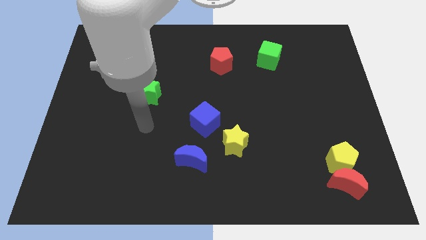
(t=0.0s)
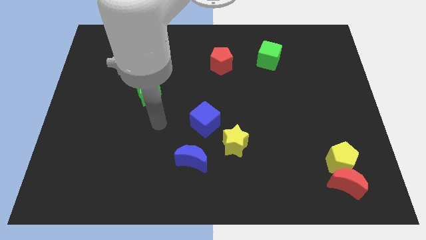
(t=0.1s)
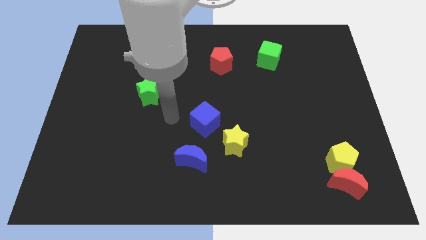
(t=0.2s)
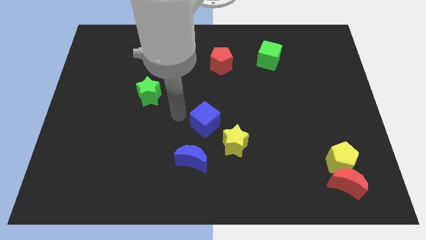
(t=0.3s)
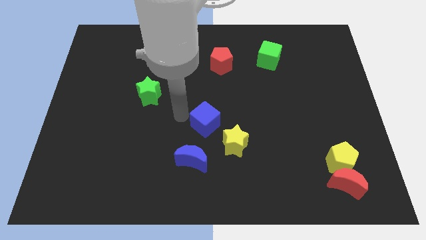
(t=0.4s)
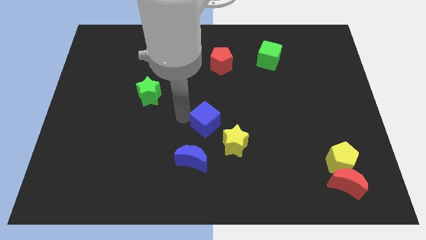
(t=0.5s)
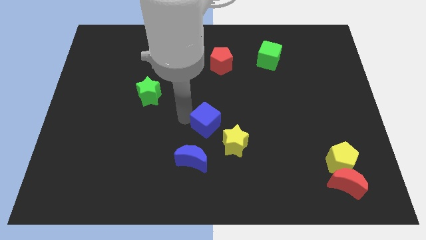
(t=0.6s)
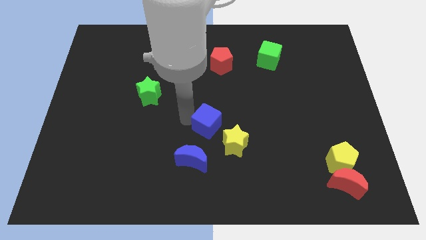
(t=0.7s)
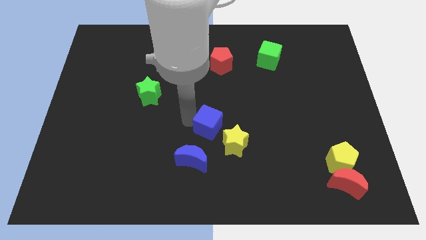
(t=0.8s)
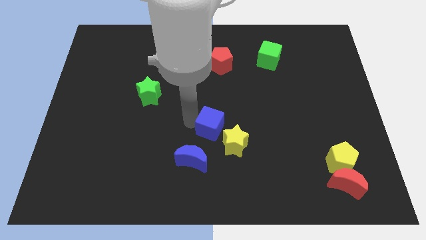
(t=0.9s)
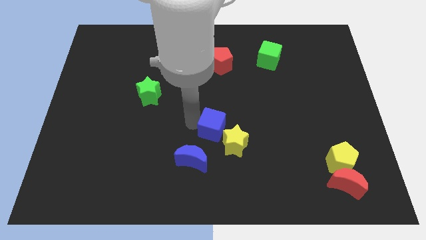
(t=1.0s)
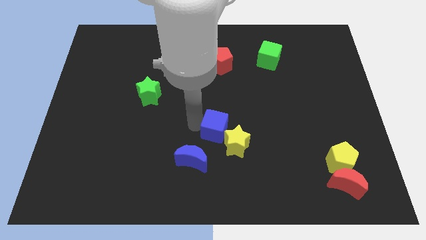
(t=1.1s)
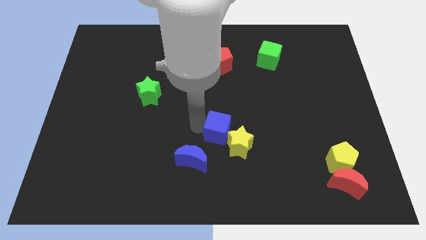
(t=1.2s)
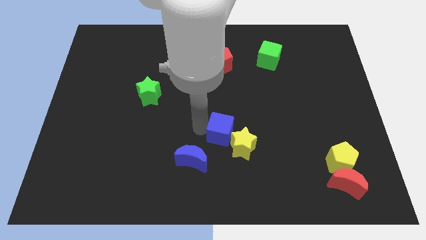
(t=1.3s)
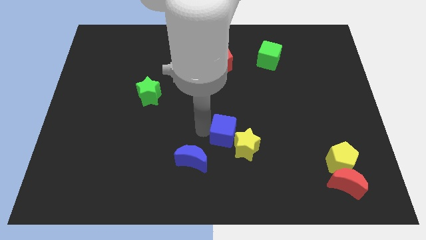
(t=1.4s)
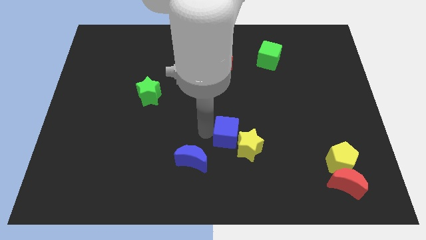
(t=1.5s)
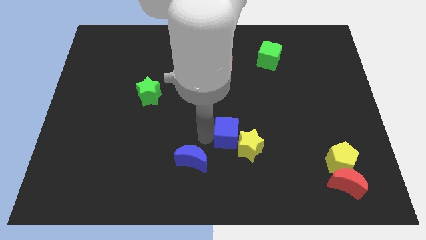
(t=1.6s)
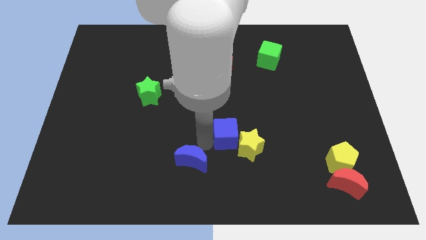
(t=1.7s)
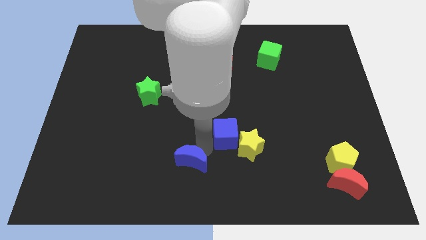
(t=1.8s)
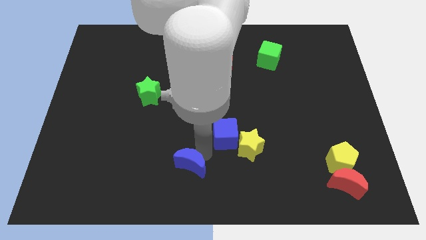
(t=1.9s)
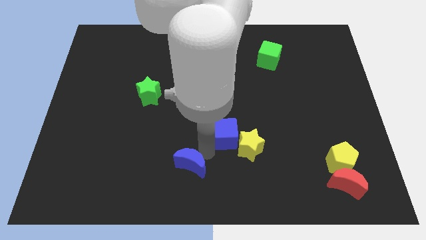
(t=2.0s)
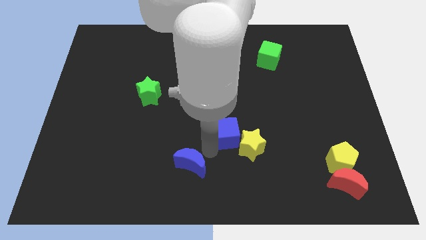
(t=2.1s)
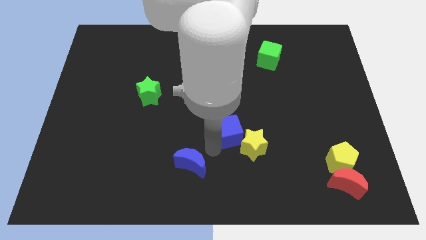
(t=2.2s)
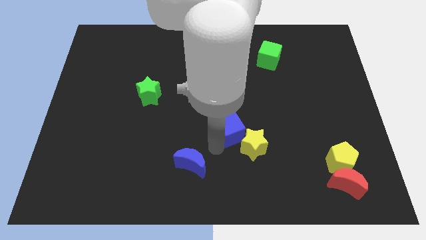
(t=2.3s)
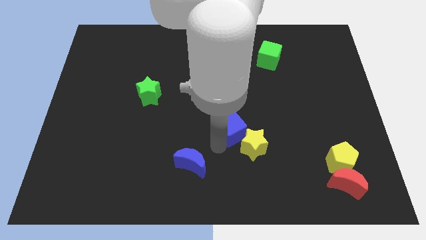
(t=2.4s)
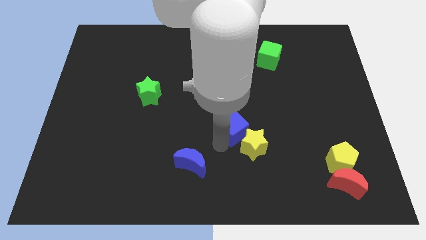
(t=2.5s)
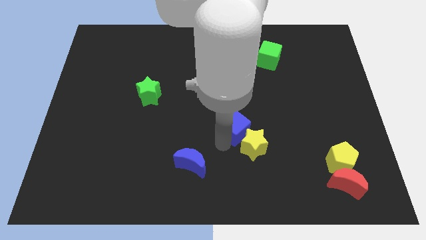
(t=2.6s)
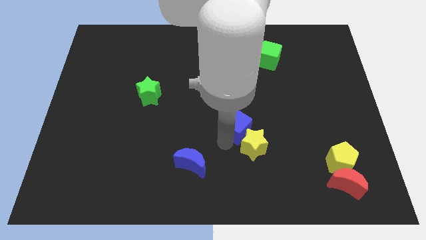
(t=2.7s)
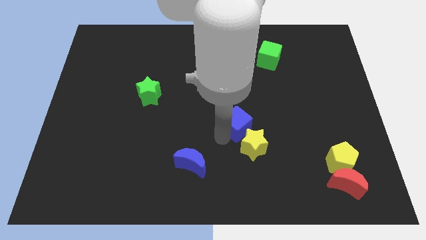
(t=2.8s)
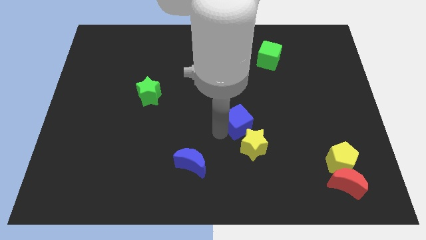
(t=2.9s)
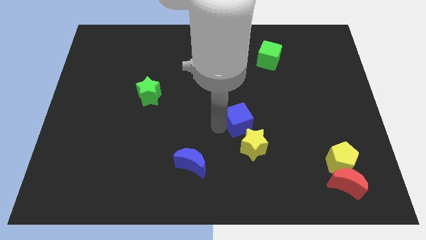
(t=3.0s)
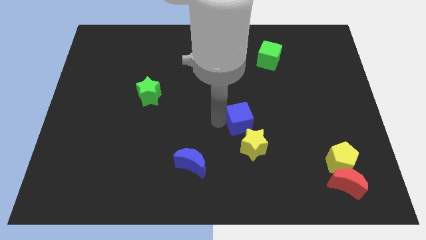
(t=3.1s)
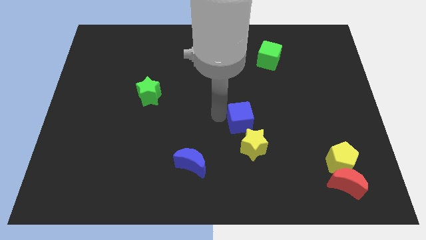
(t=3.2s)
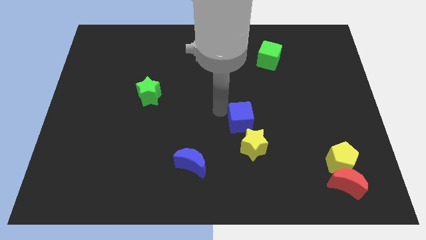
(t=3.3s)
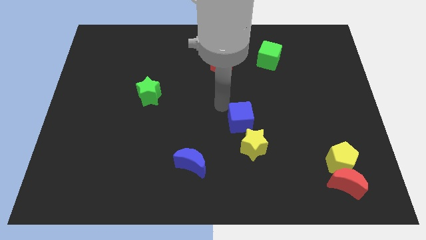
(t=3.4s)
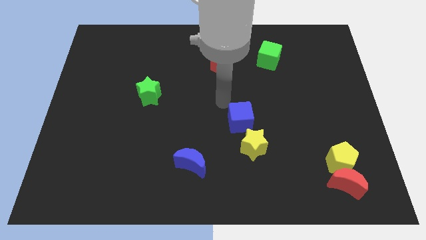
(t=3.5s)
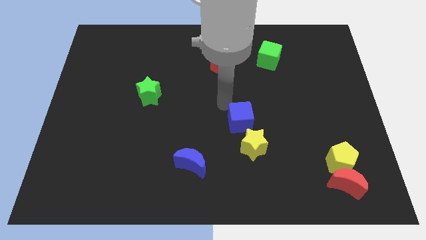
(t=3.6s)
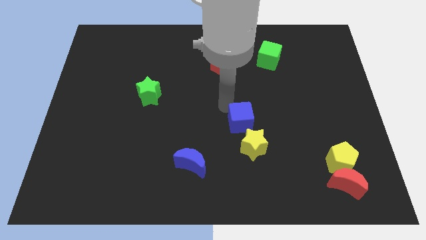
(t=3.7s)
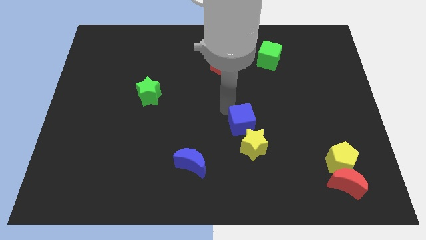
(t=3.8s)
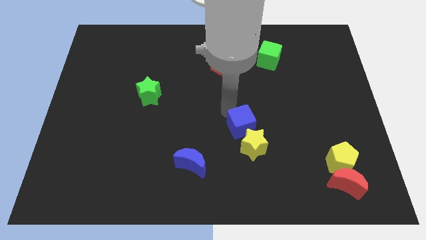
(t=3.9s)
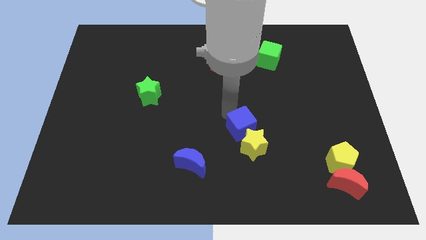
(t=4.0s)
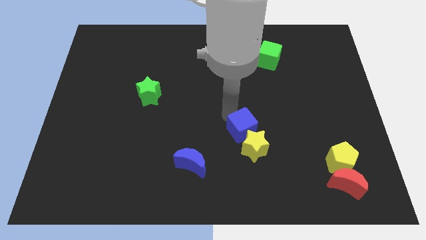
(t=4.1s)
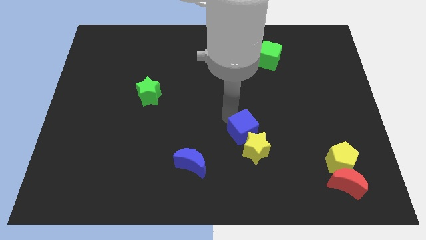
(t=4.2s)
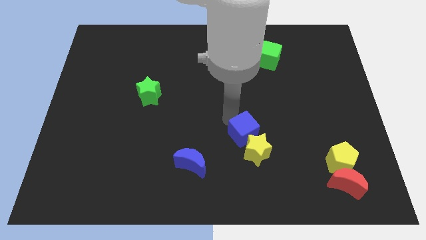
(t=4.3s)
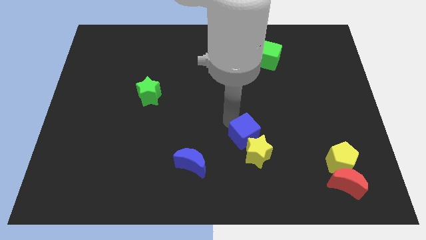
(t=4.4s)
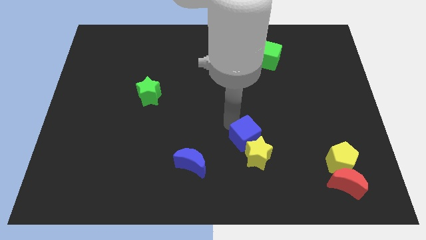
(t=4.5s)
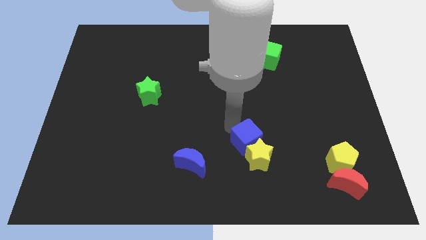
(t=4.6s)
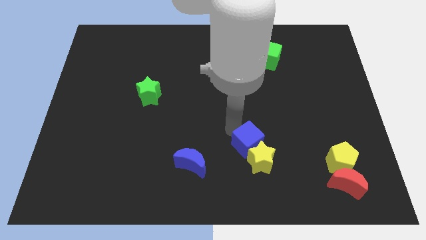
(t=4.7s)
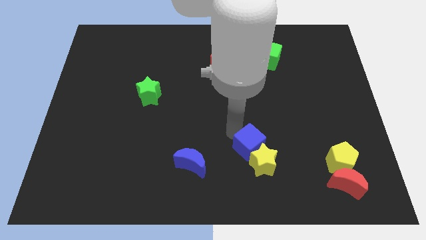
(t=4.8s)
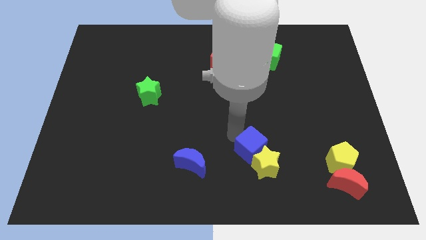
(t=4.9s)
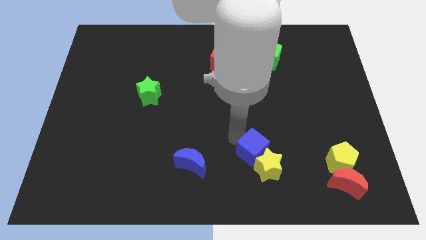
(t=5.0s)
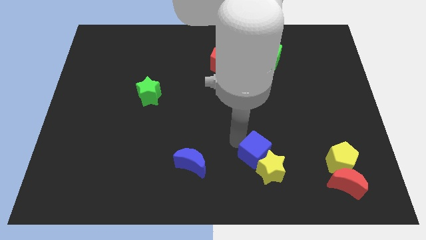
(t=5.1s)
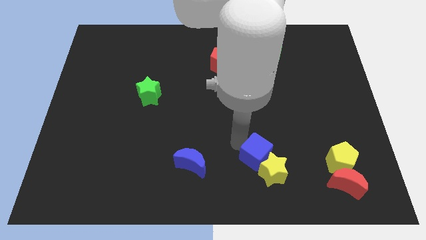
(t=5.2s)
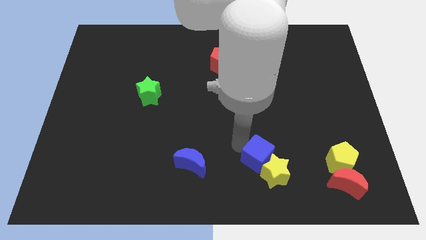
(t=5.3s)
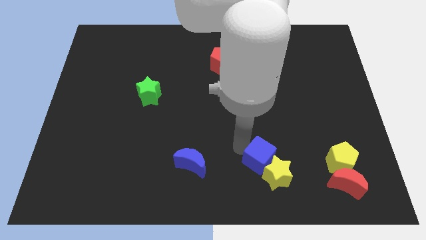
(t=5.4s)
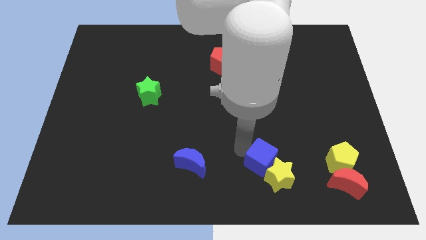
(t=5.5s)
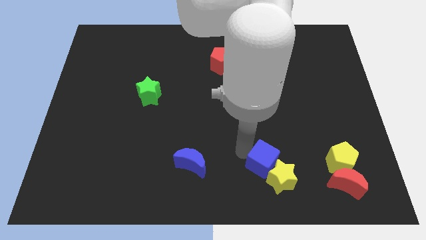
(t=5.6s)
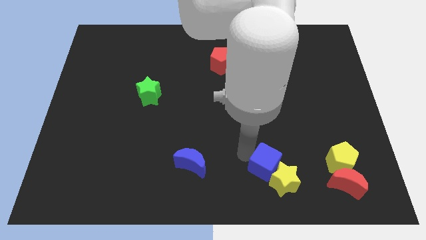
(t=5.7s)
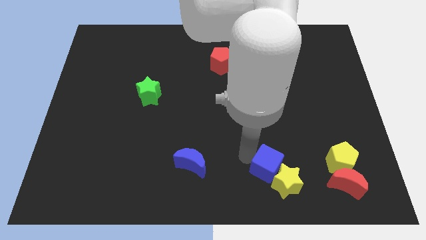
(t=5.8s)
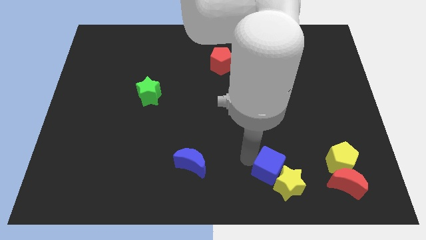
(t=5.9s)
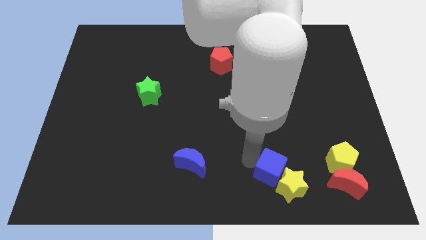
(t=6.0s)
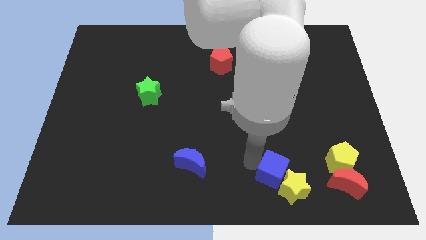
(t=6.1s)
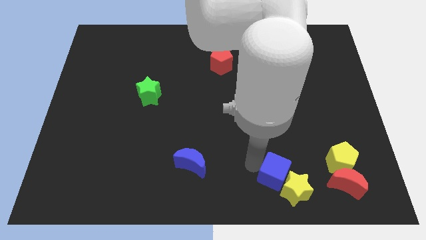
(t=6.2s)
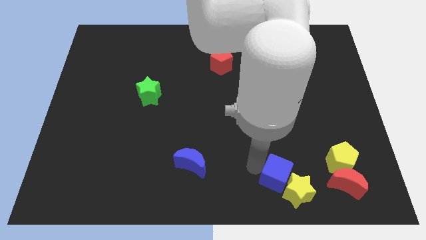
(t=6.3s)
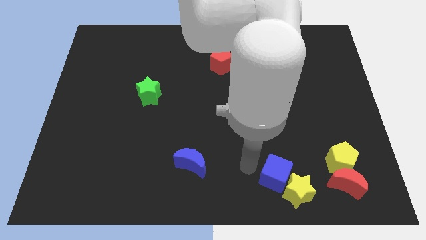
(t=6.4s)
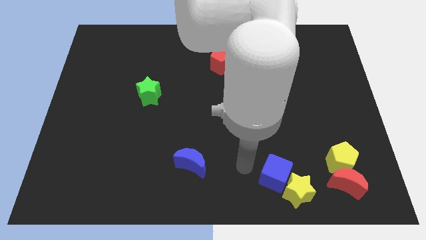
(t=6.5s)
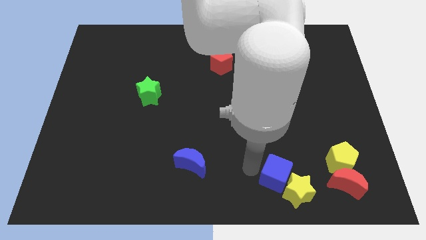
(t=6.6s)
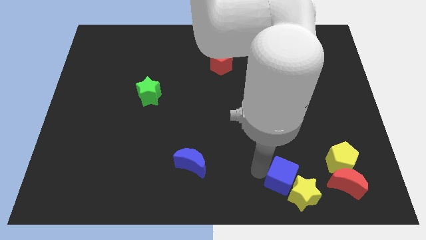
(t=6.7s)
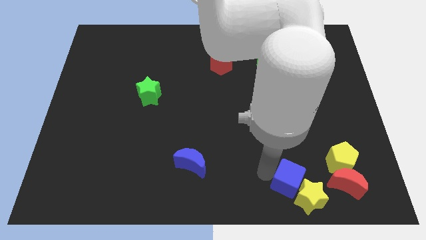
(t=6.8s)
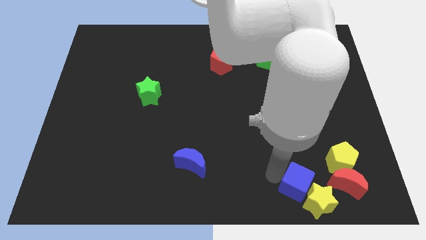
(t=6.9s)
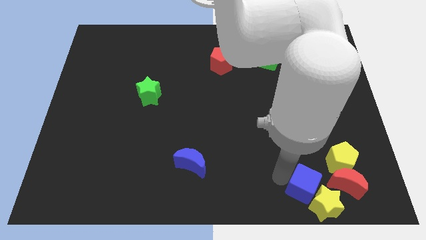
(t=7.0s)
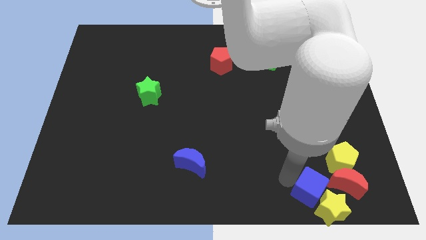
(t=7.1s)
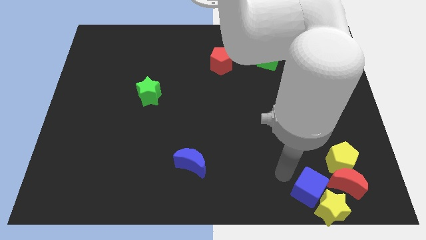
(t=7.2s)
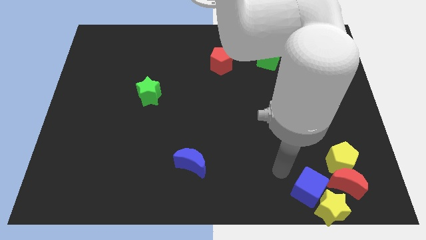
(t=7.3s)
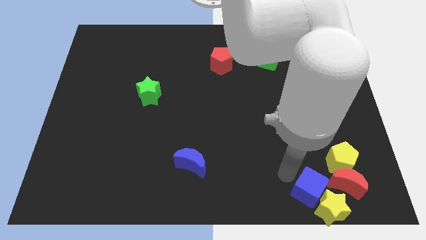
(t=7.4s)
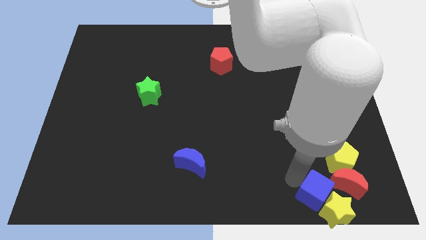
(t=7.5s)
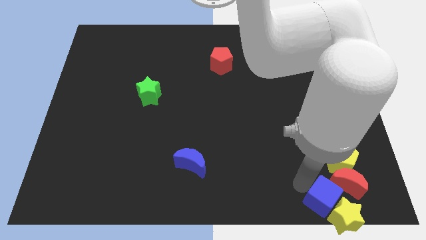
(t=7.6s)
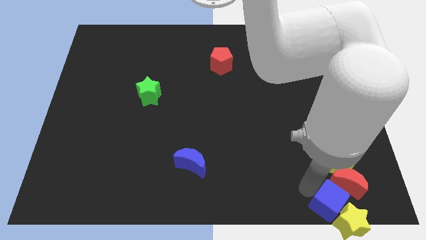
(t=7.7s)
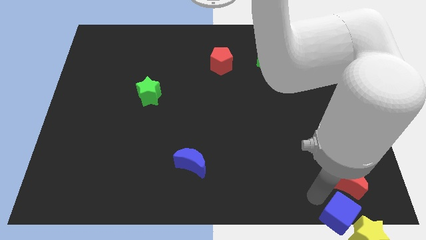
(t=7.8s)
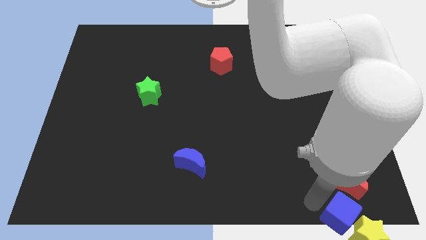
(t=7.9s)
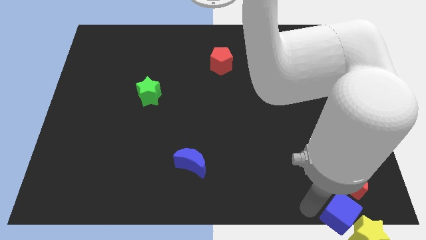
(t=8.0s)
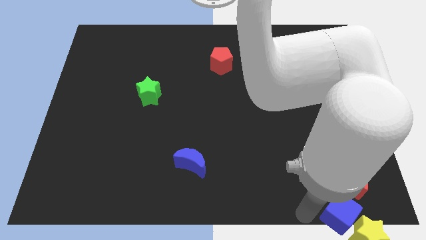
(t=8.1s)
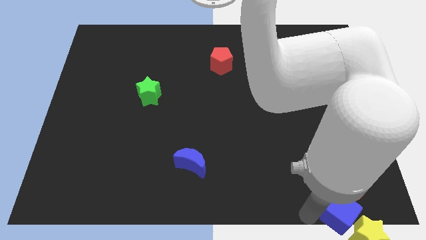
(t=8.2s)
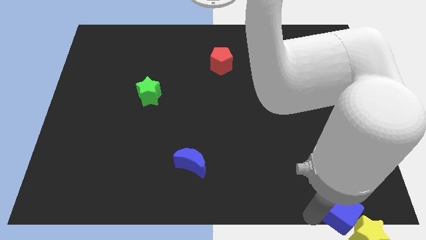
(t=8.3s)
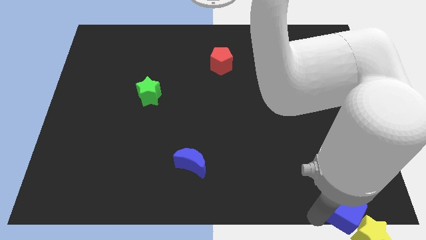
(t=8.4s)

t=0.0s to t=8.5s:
put the blue cube to the bottom right of the board
